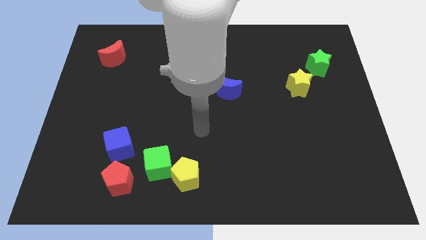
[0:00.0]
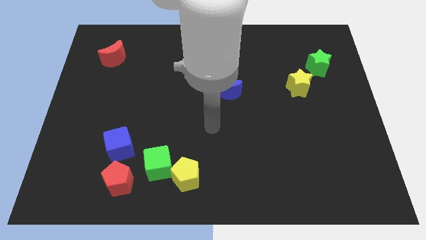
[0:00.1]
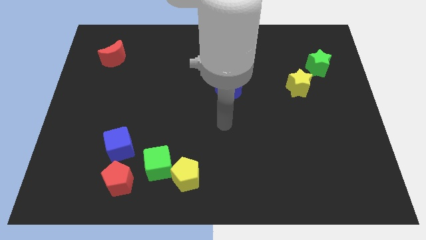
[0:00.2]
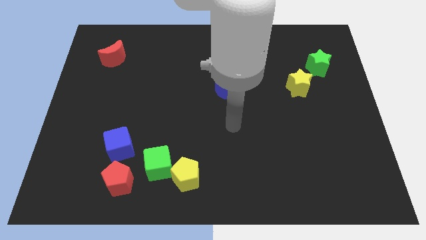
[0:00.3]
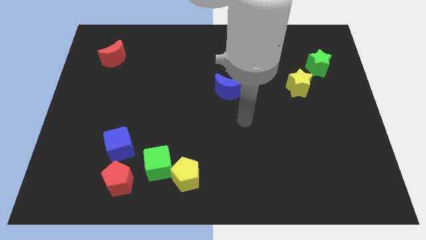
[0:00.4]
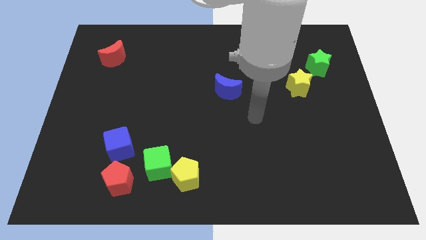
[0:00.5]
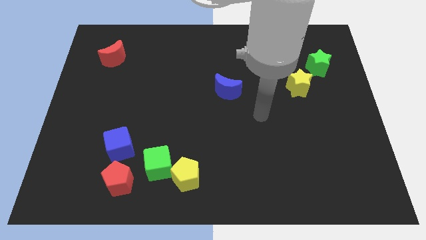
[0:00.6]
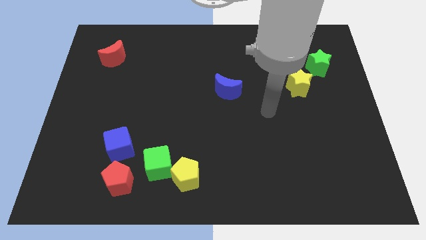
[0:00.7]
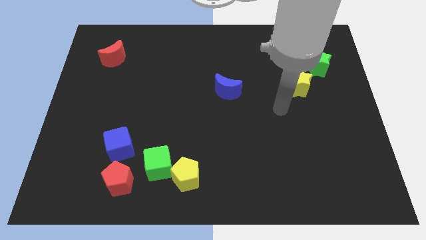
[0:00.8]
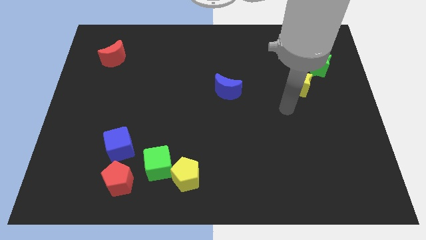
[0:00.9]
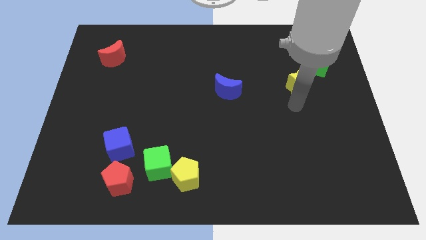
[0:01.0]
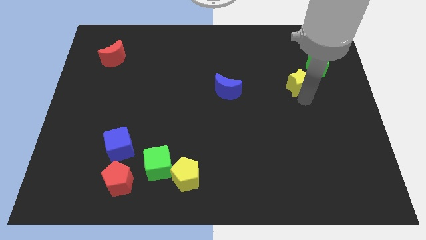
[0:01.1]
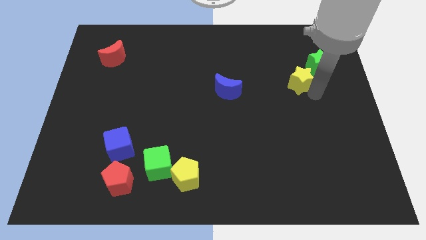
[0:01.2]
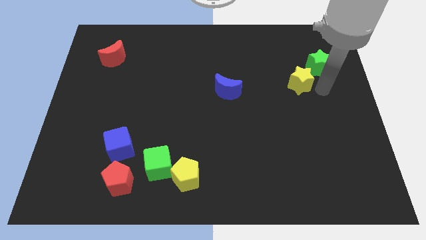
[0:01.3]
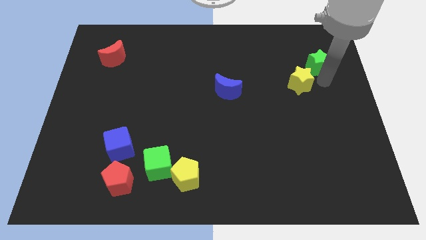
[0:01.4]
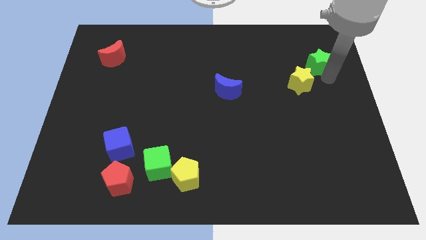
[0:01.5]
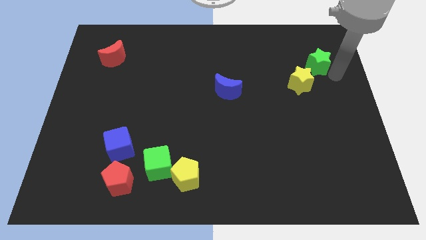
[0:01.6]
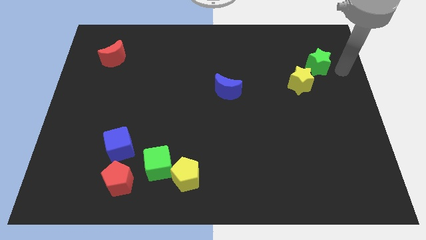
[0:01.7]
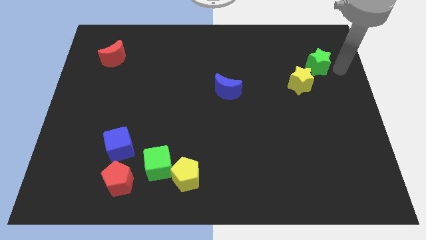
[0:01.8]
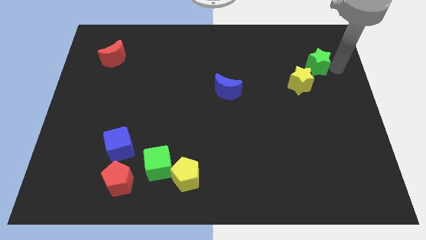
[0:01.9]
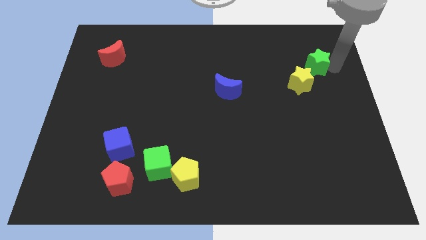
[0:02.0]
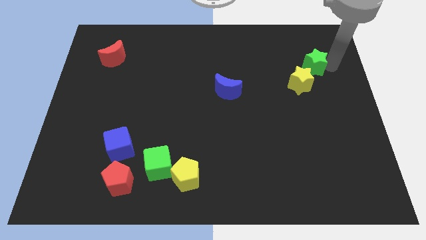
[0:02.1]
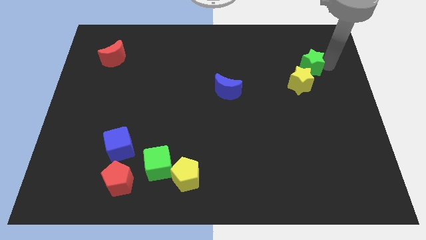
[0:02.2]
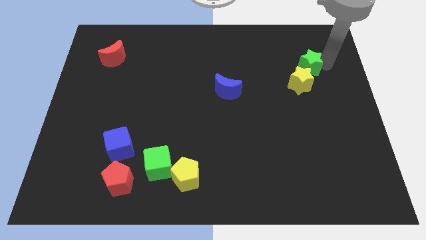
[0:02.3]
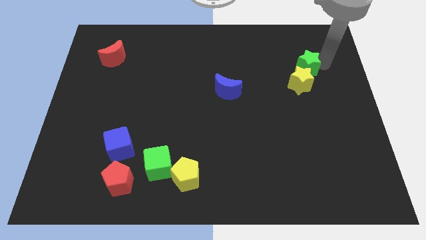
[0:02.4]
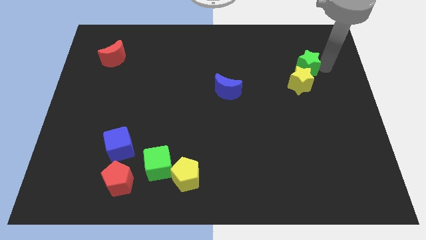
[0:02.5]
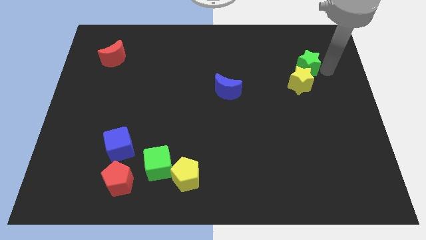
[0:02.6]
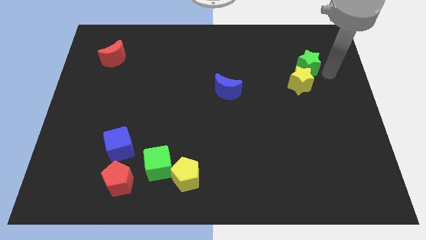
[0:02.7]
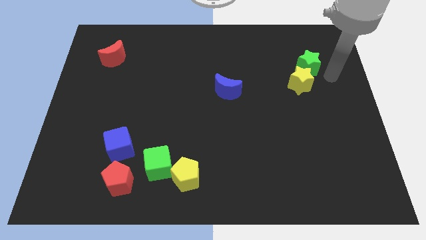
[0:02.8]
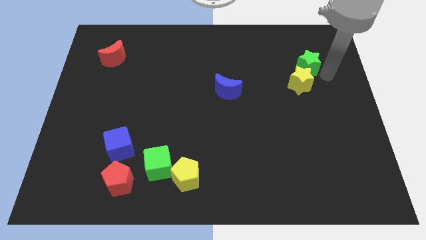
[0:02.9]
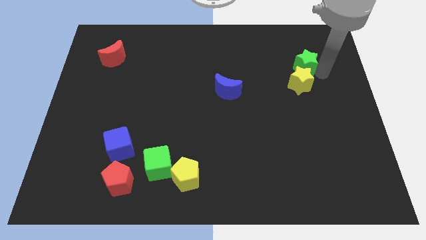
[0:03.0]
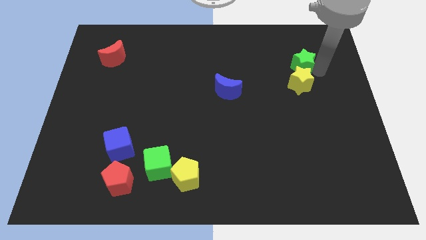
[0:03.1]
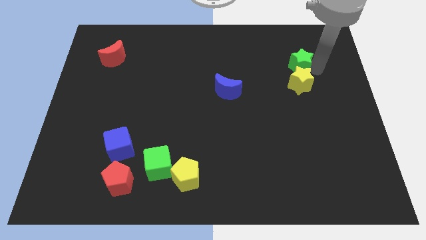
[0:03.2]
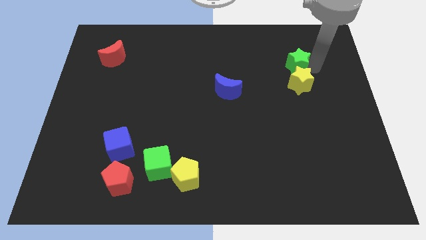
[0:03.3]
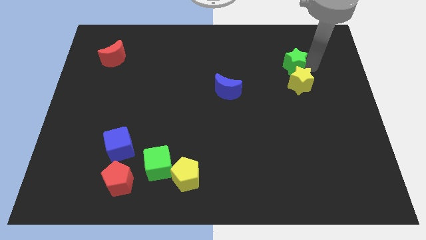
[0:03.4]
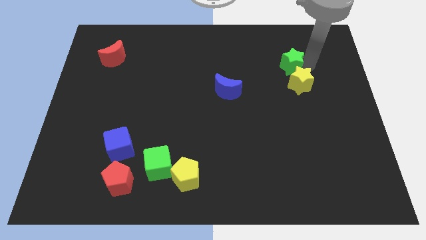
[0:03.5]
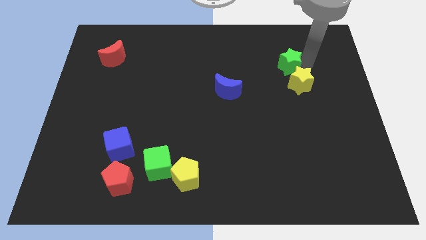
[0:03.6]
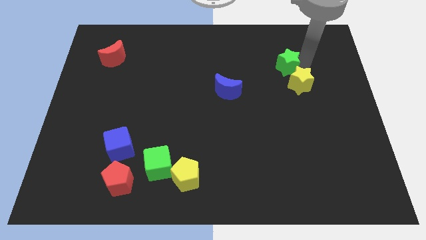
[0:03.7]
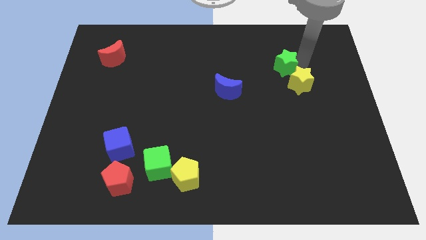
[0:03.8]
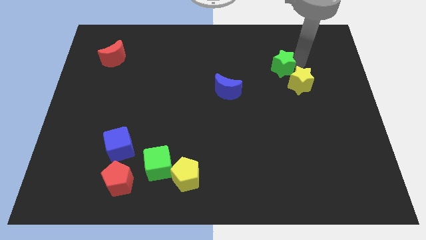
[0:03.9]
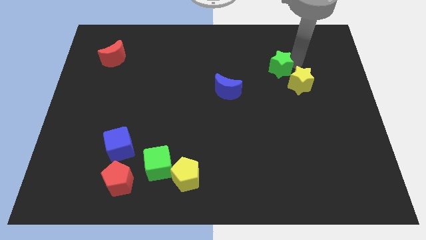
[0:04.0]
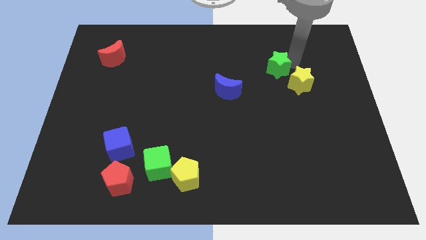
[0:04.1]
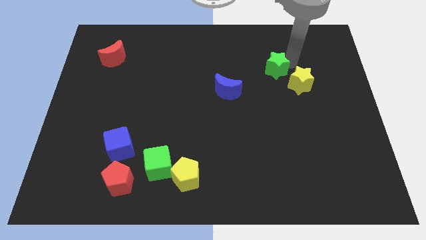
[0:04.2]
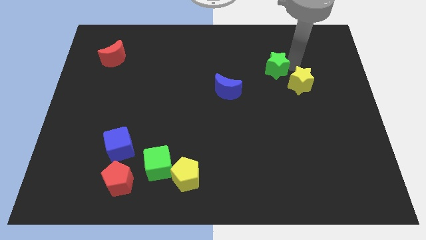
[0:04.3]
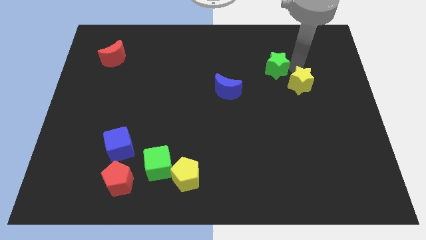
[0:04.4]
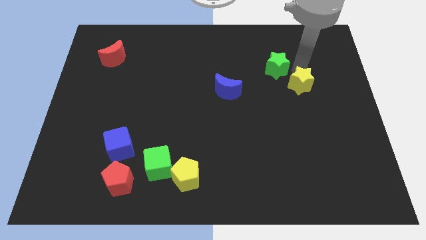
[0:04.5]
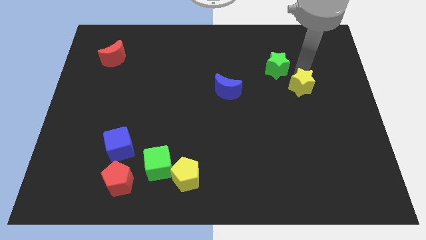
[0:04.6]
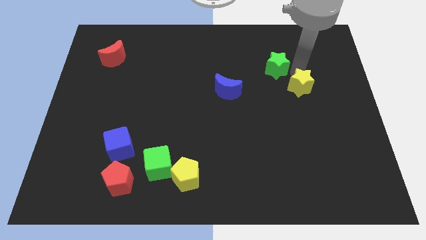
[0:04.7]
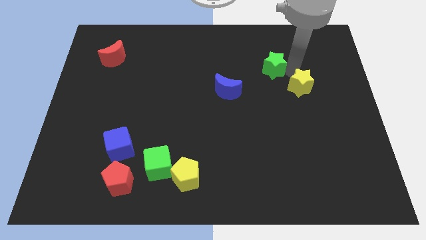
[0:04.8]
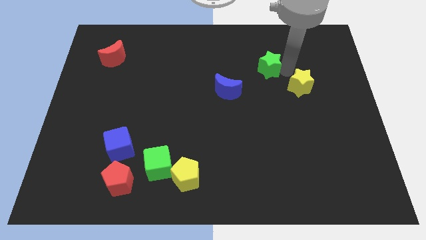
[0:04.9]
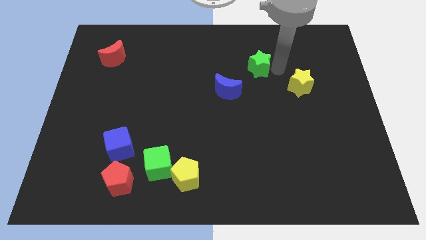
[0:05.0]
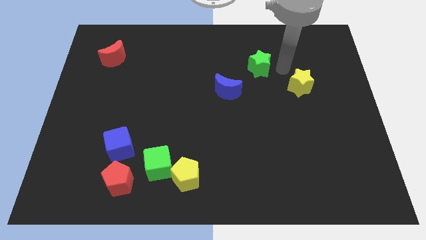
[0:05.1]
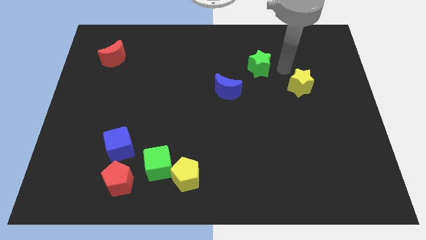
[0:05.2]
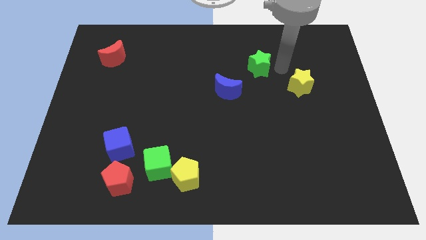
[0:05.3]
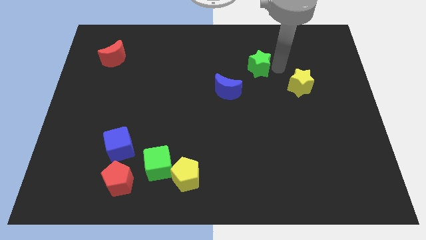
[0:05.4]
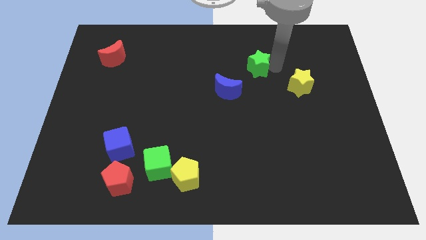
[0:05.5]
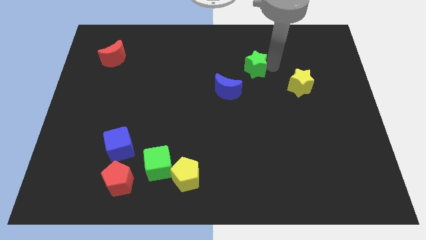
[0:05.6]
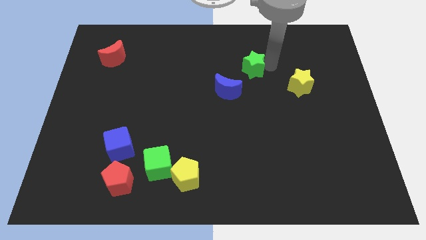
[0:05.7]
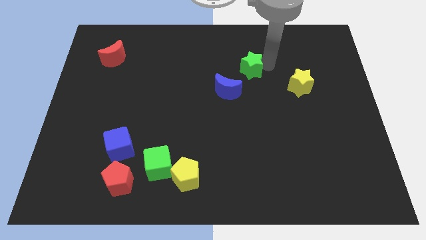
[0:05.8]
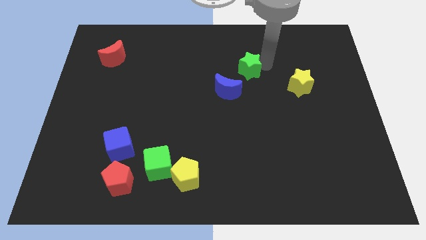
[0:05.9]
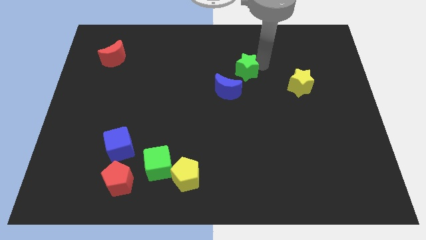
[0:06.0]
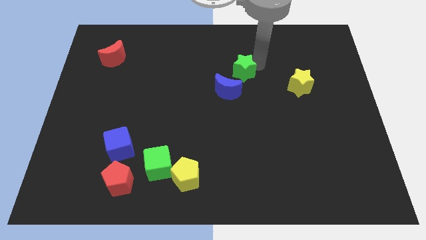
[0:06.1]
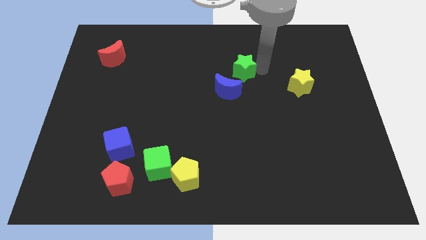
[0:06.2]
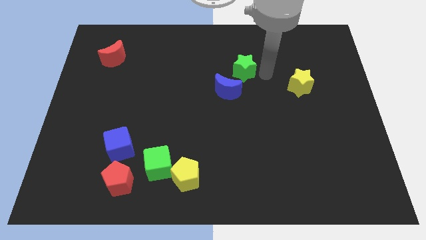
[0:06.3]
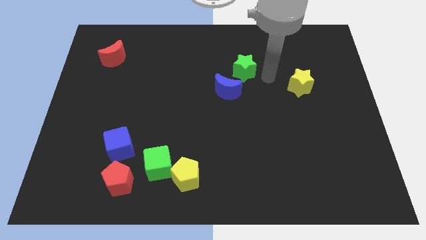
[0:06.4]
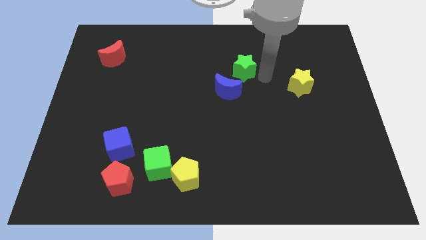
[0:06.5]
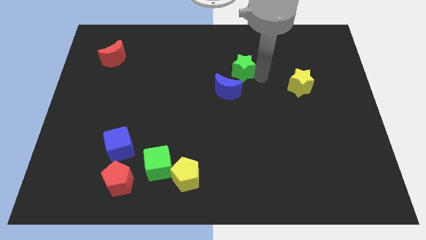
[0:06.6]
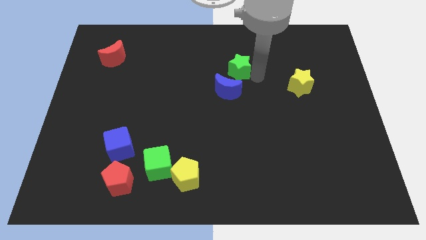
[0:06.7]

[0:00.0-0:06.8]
slide the green star left

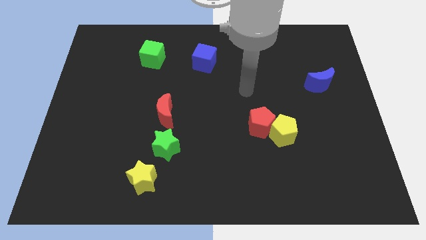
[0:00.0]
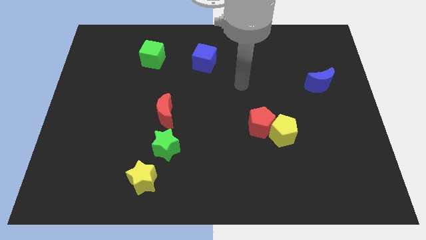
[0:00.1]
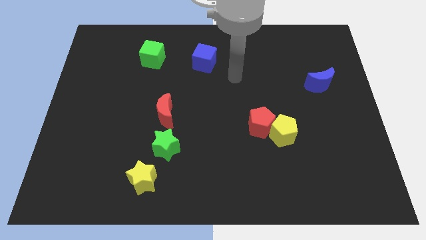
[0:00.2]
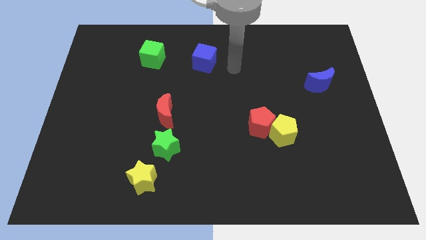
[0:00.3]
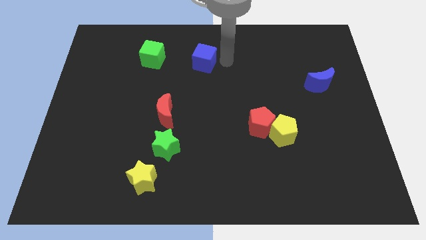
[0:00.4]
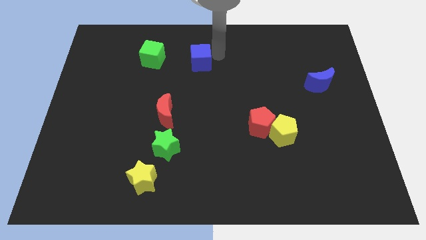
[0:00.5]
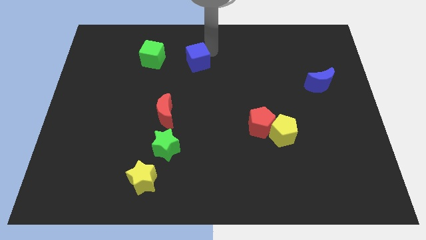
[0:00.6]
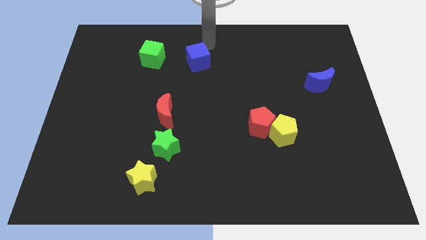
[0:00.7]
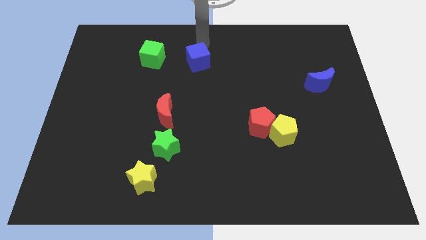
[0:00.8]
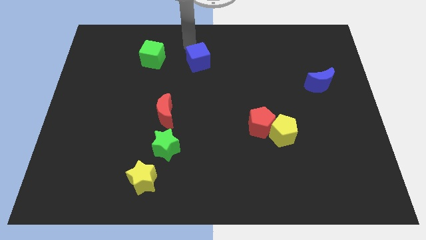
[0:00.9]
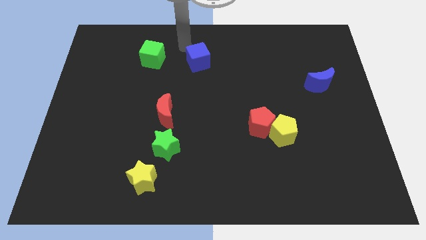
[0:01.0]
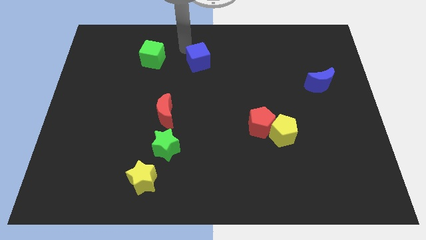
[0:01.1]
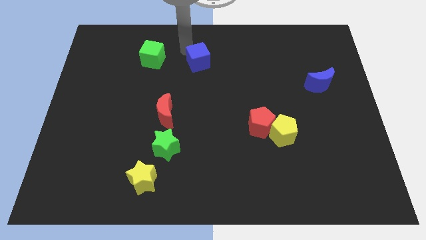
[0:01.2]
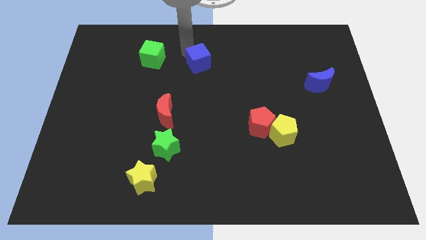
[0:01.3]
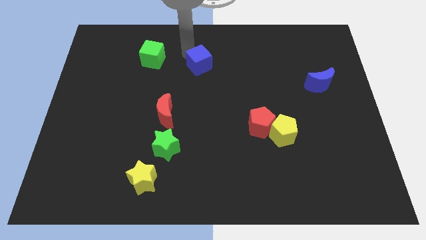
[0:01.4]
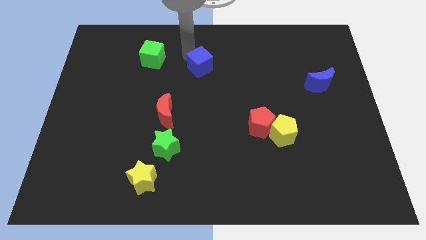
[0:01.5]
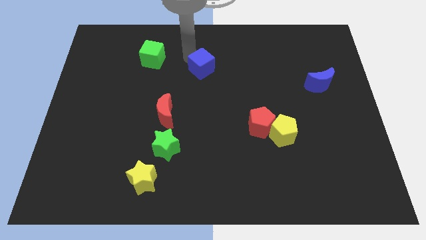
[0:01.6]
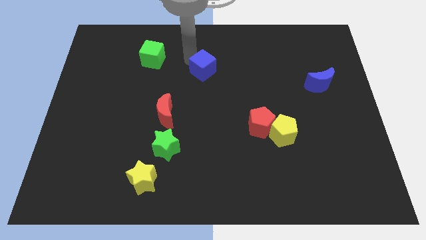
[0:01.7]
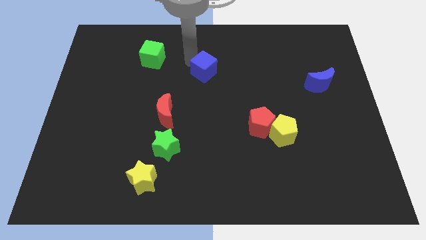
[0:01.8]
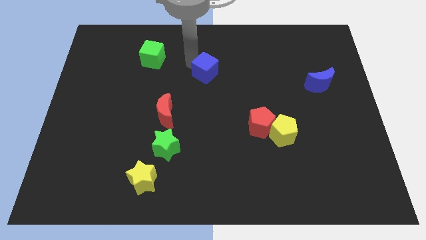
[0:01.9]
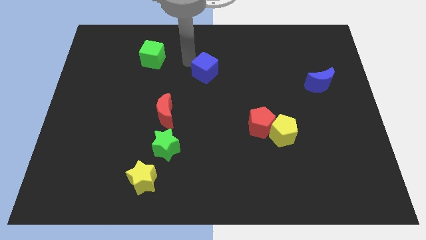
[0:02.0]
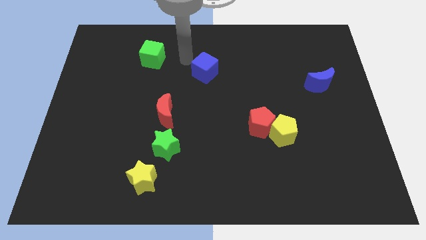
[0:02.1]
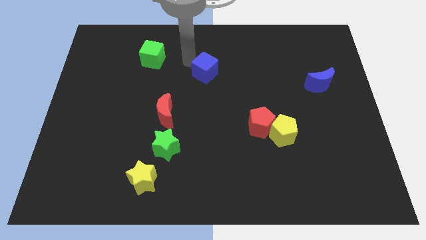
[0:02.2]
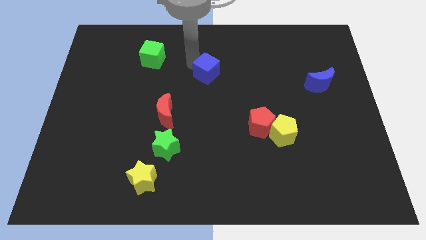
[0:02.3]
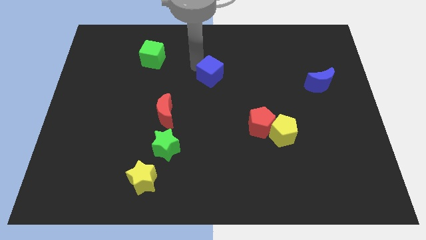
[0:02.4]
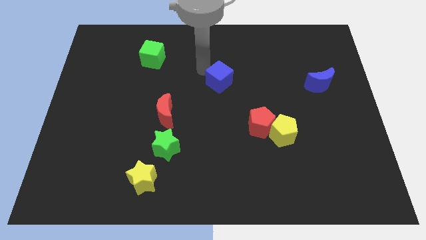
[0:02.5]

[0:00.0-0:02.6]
move the blue cube down and right diagonally slightly
